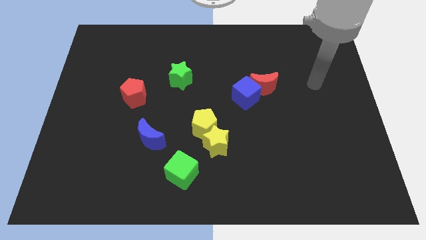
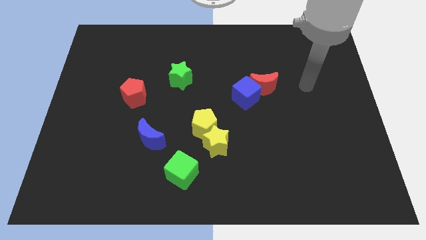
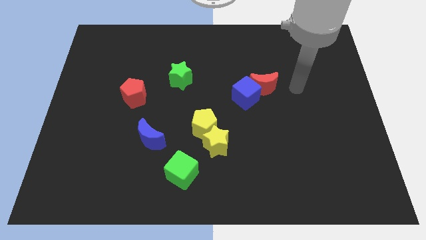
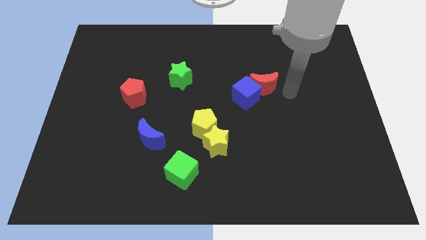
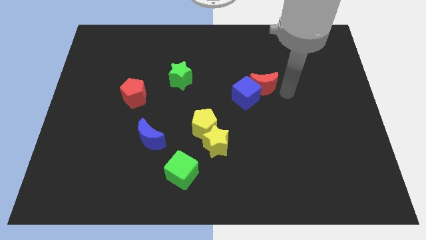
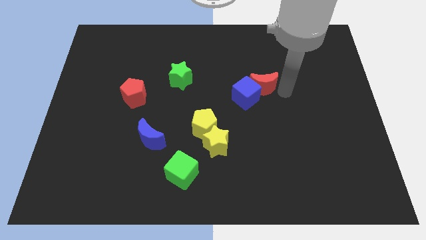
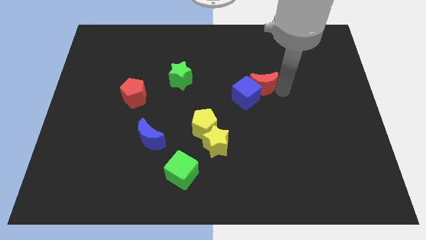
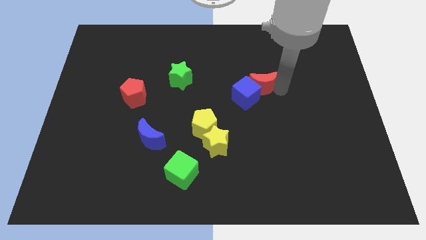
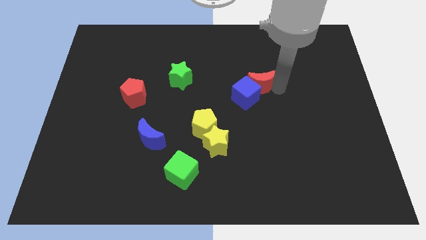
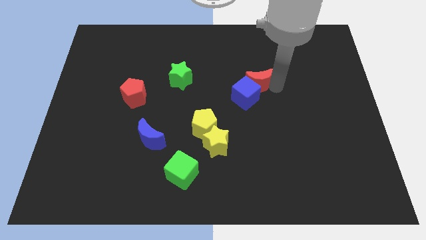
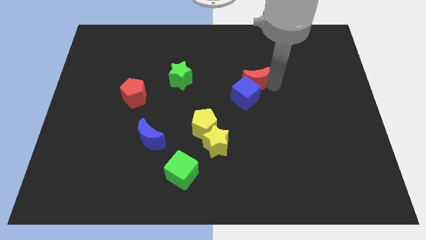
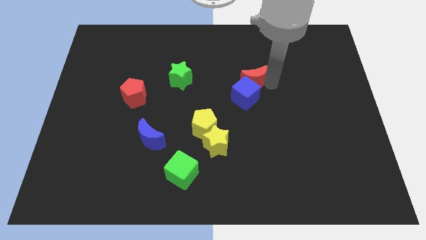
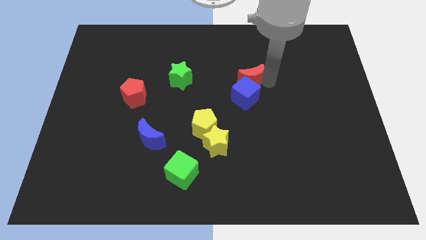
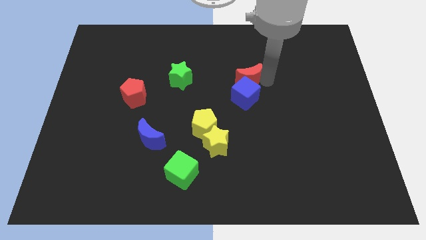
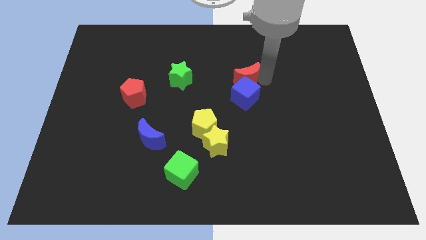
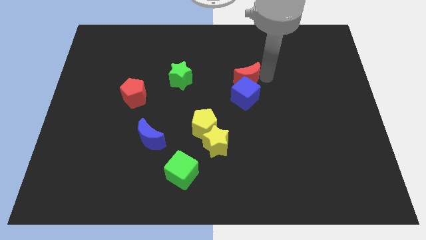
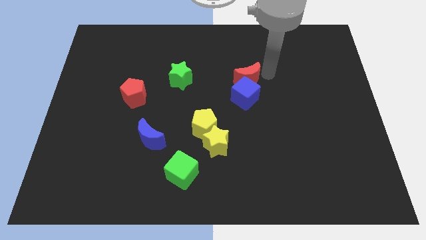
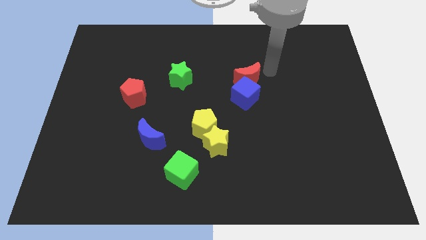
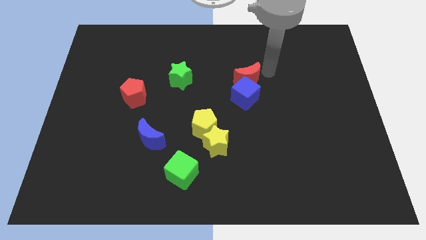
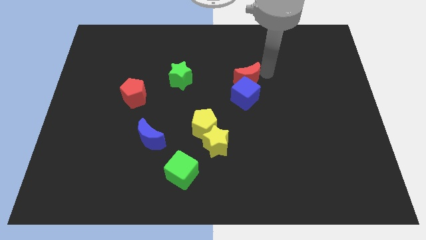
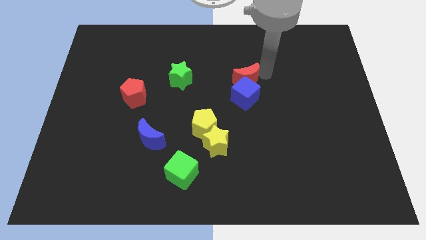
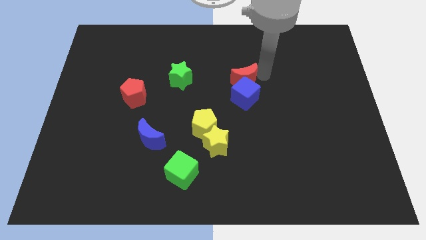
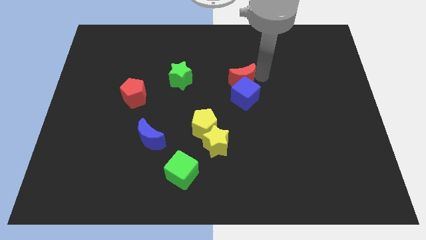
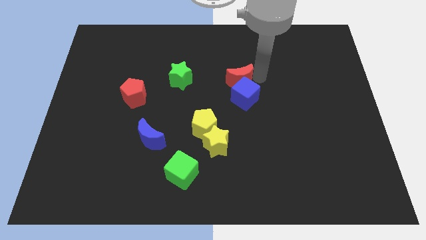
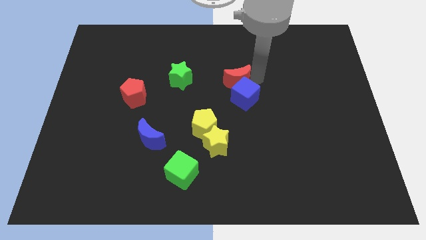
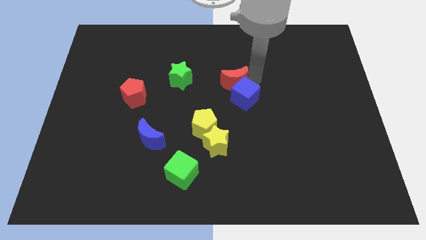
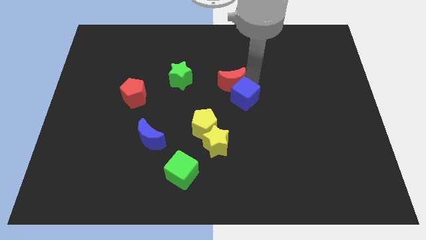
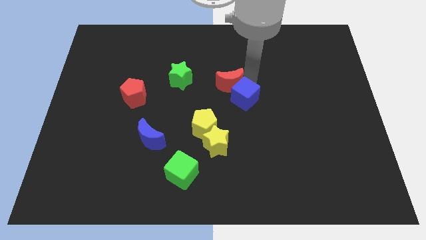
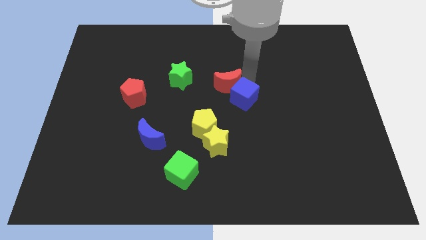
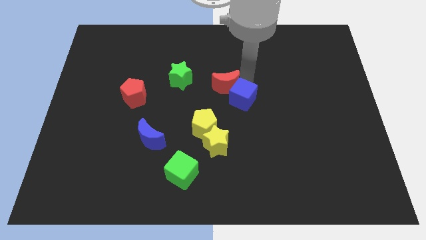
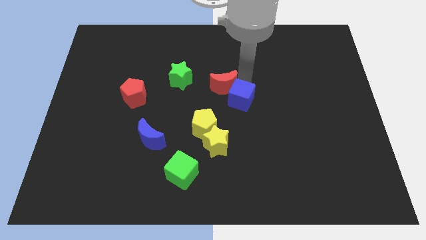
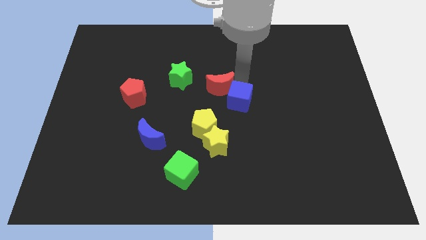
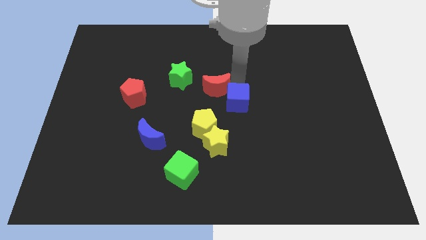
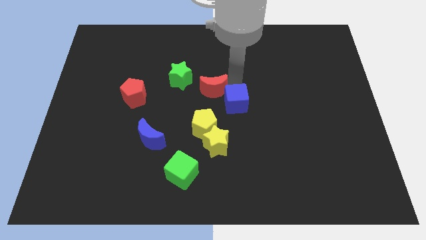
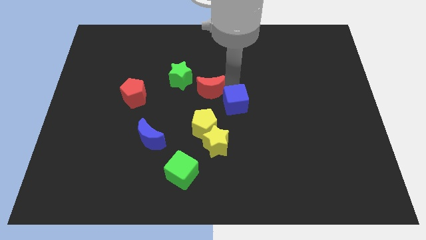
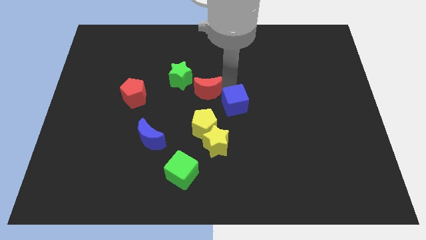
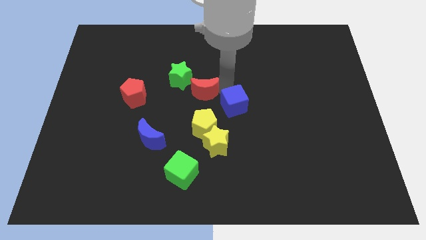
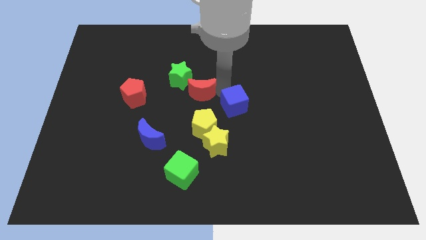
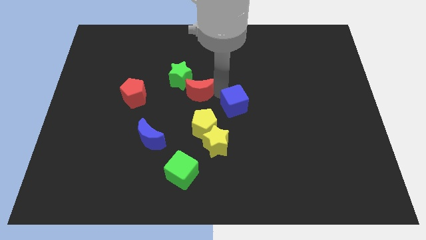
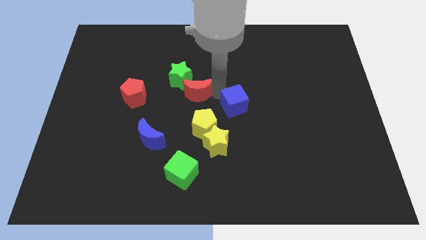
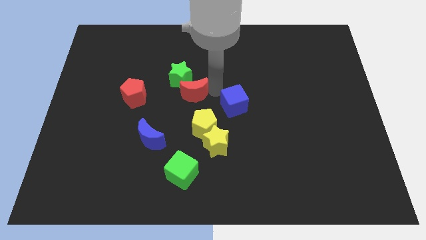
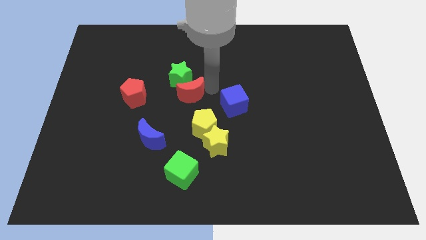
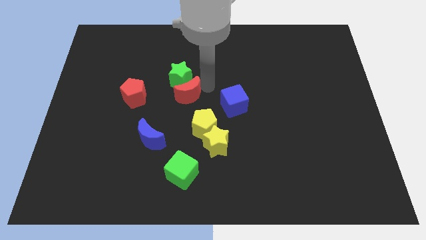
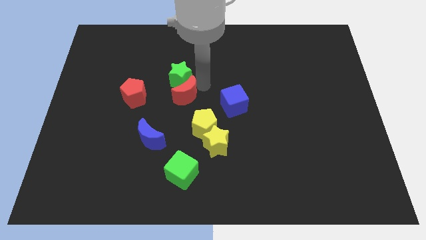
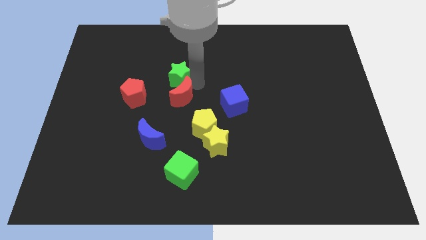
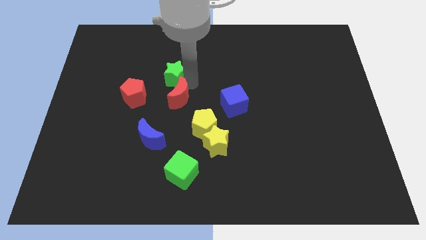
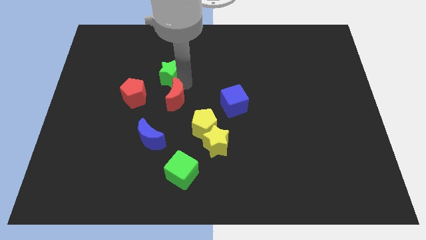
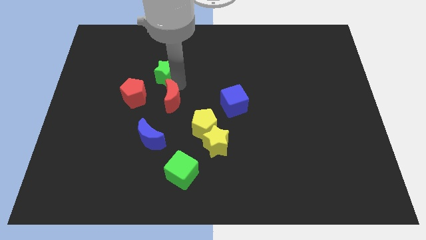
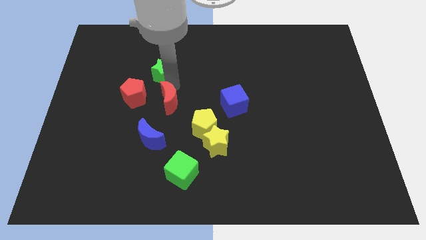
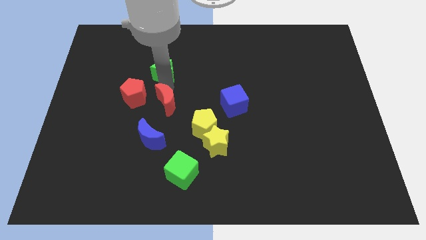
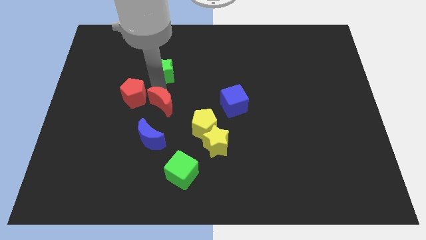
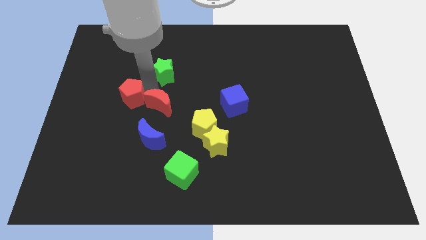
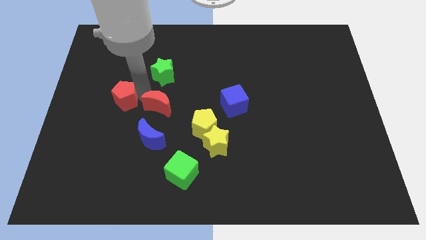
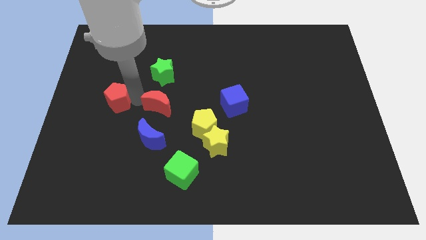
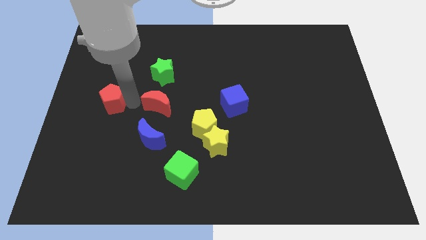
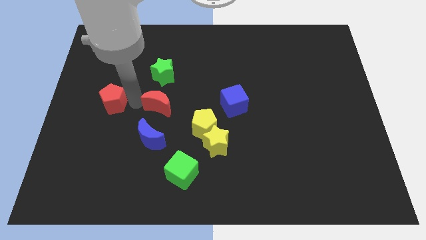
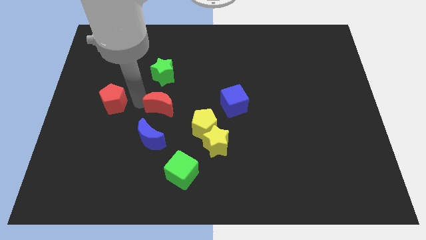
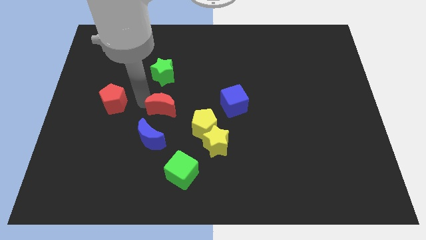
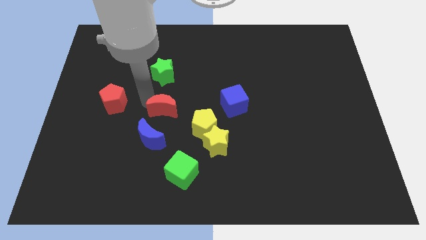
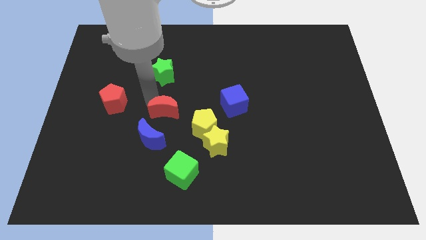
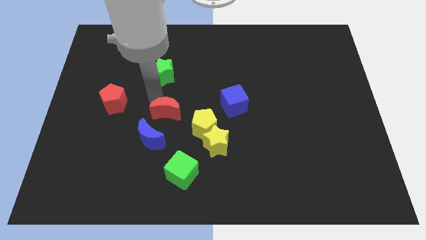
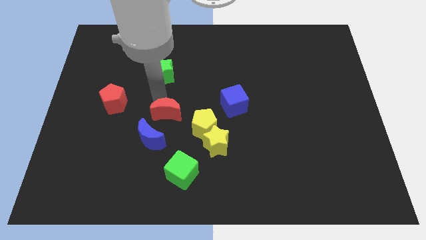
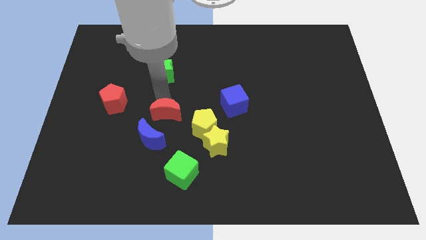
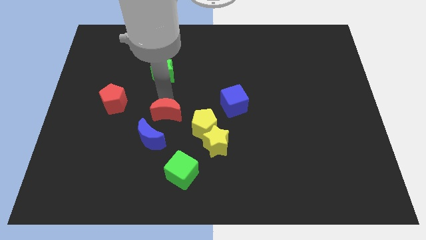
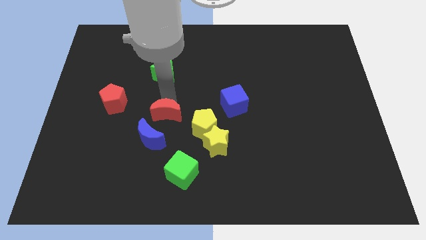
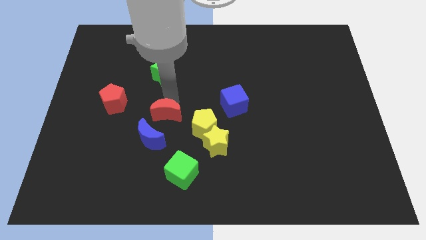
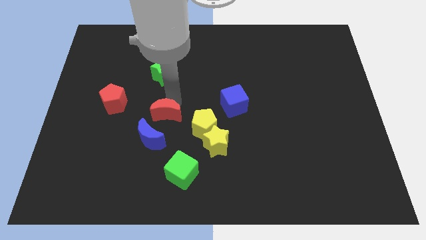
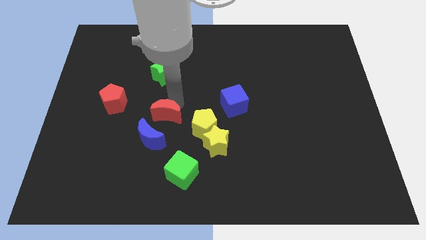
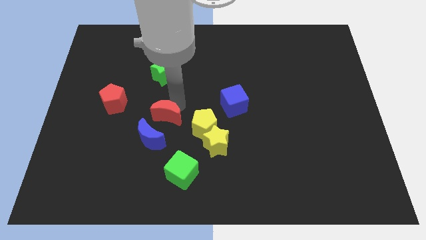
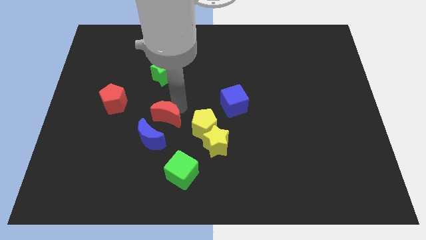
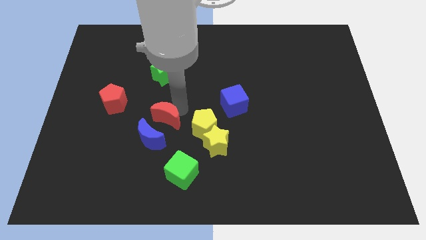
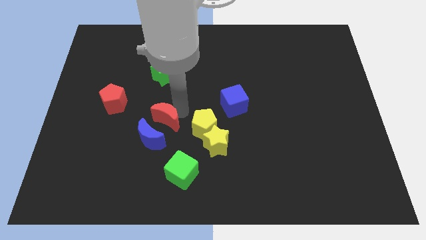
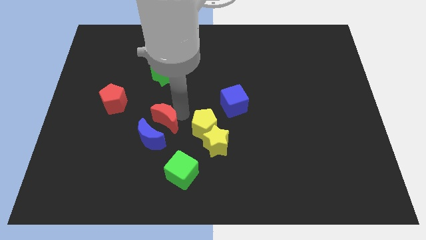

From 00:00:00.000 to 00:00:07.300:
move the red moon towards the blue moon
